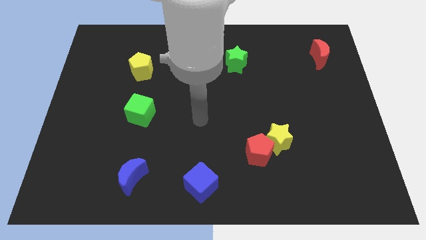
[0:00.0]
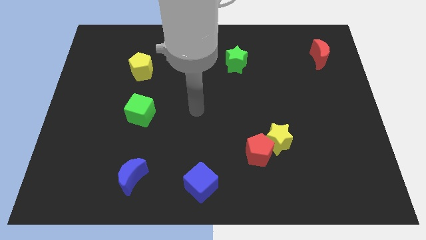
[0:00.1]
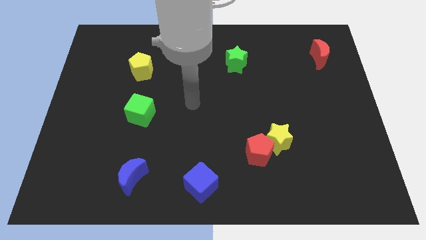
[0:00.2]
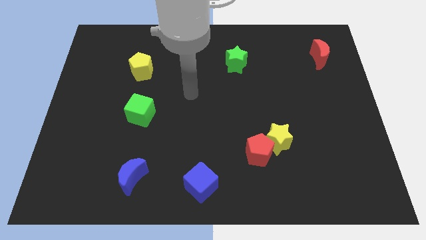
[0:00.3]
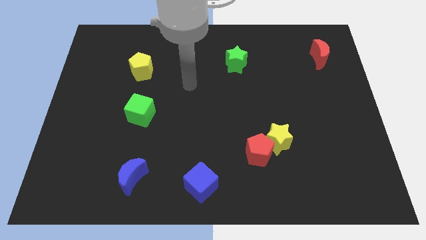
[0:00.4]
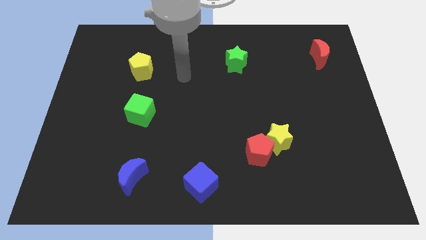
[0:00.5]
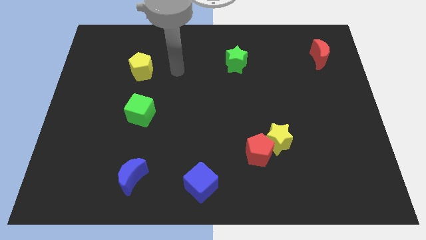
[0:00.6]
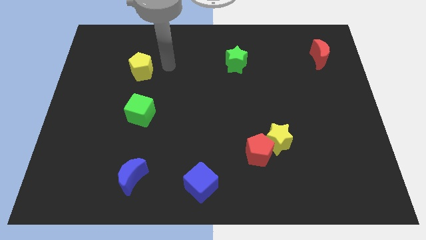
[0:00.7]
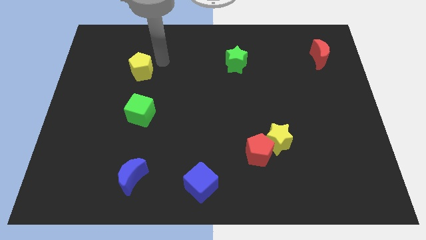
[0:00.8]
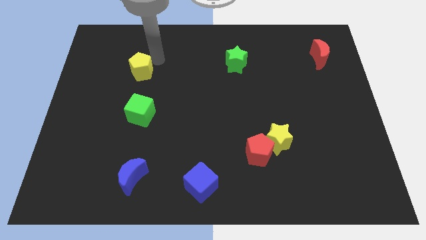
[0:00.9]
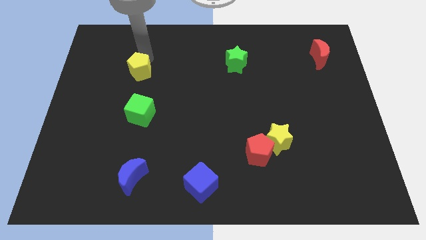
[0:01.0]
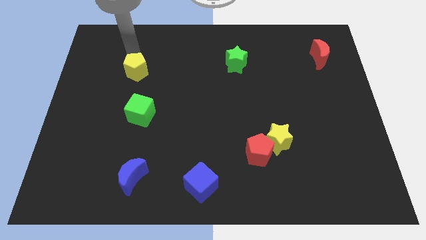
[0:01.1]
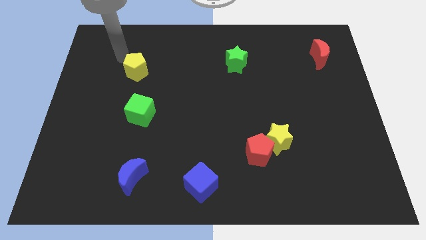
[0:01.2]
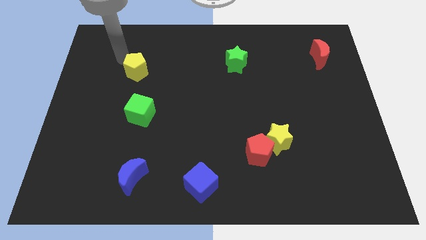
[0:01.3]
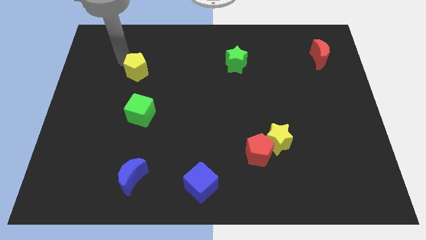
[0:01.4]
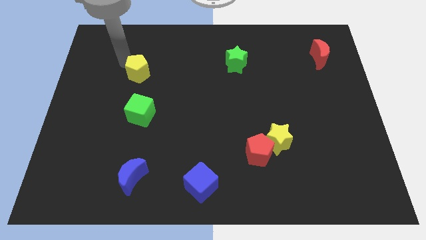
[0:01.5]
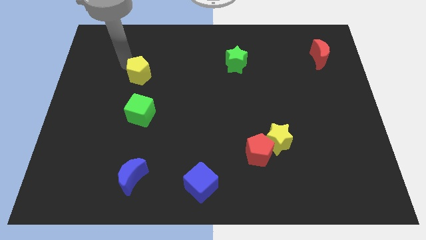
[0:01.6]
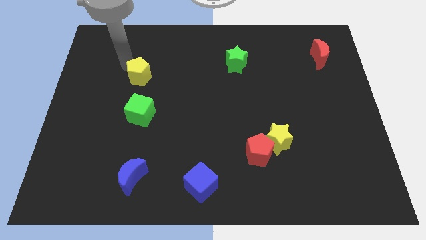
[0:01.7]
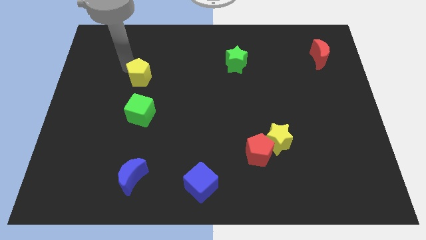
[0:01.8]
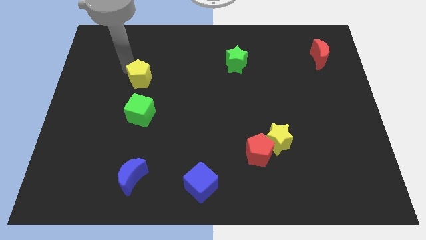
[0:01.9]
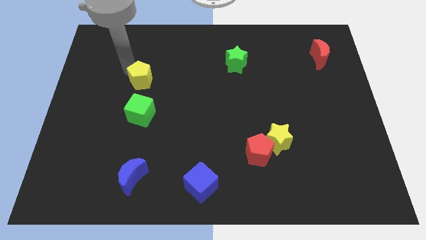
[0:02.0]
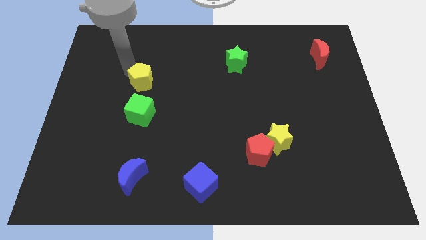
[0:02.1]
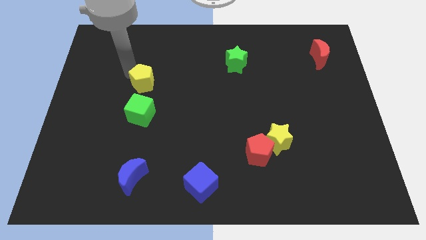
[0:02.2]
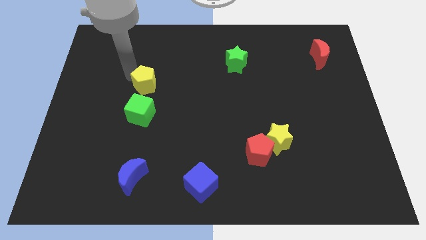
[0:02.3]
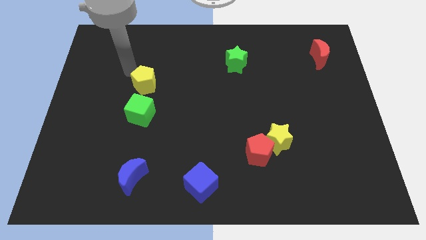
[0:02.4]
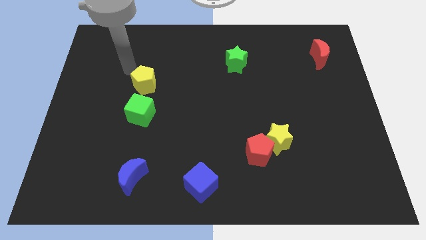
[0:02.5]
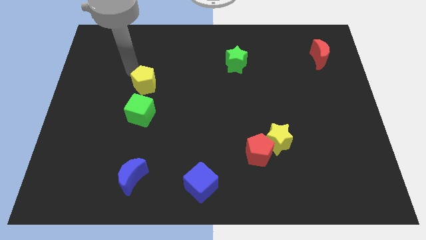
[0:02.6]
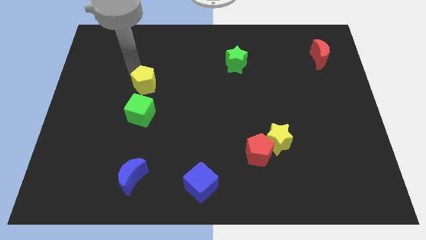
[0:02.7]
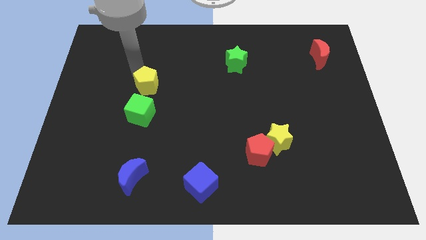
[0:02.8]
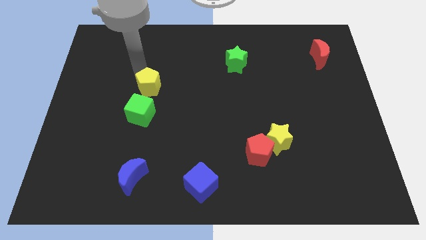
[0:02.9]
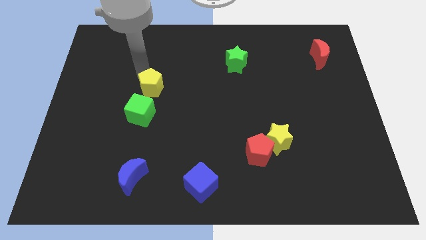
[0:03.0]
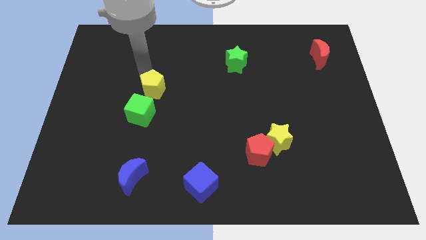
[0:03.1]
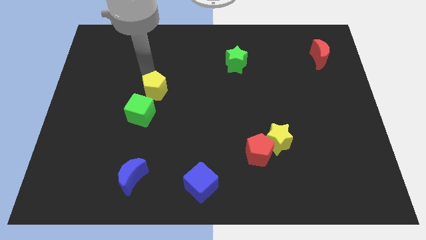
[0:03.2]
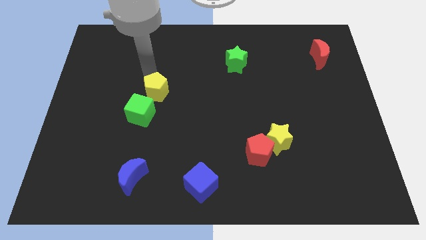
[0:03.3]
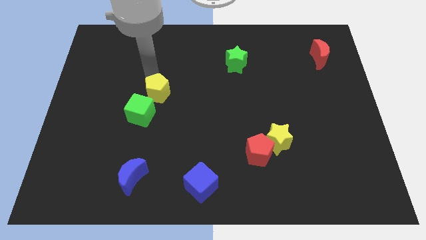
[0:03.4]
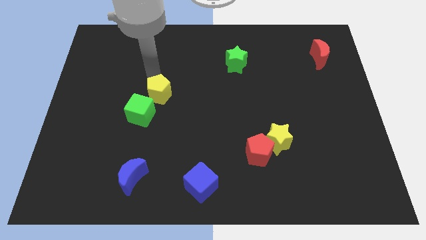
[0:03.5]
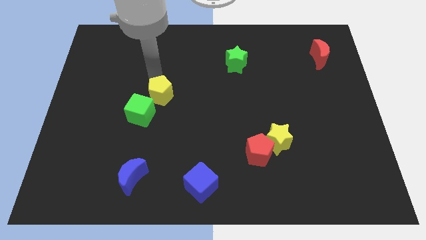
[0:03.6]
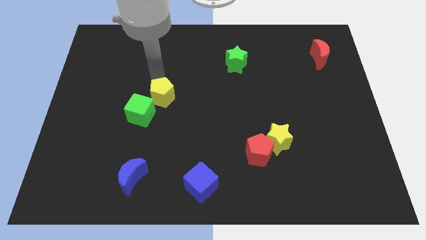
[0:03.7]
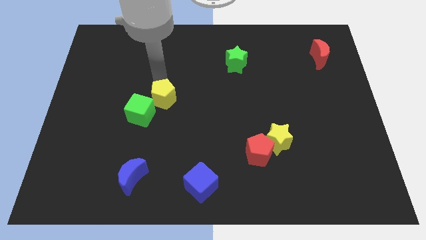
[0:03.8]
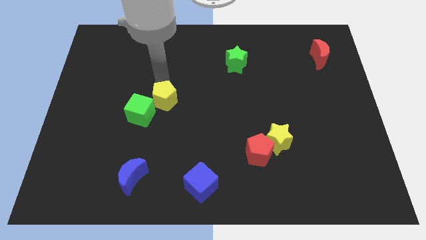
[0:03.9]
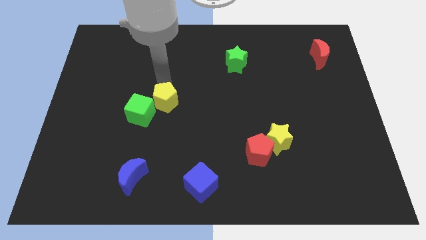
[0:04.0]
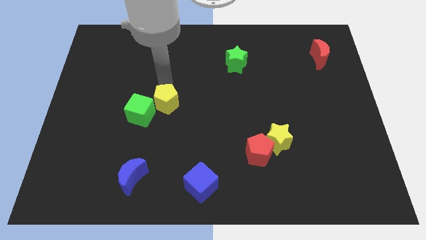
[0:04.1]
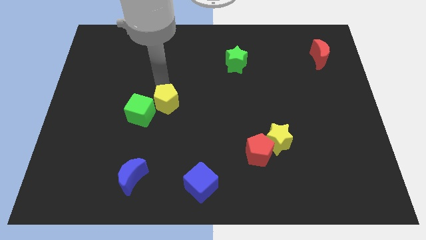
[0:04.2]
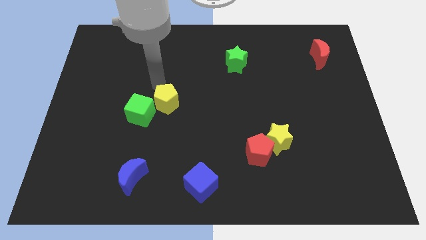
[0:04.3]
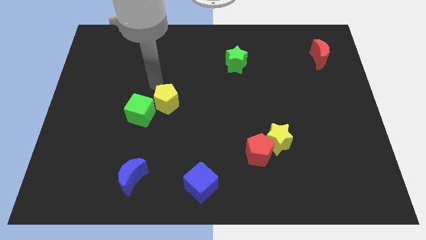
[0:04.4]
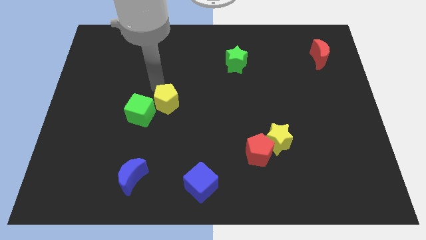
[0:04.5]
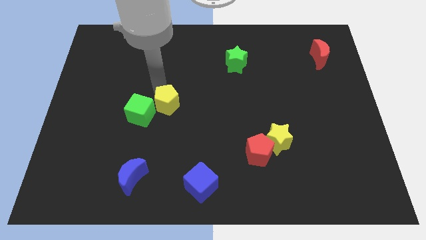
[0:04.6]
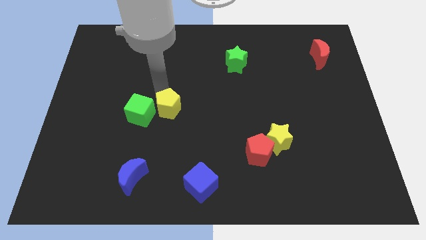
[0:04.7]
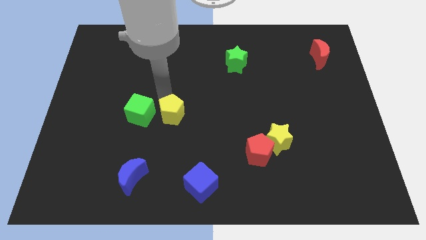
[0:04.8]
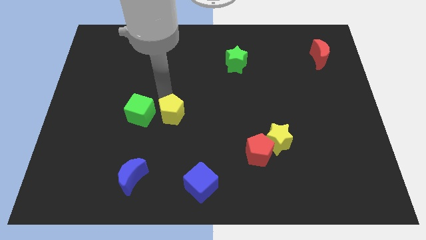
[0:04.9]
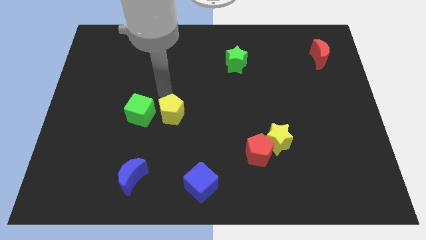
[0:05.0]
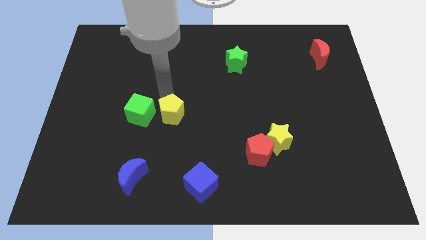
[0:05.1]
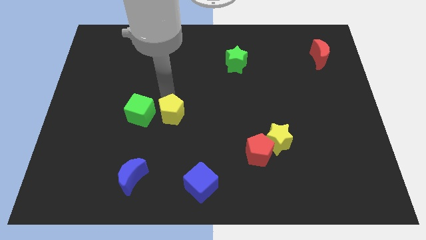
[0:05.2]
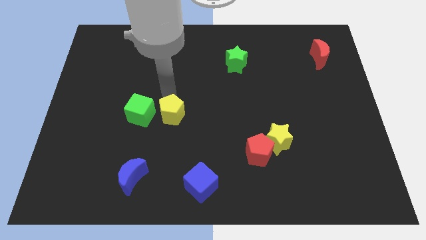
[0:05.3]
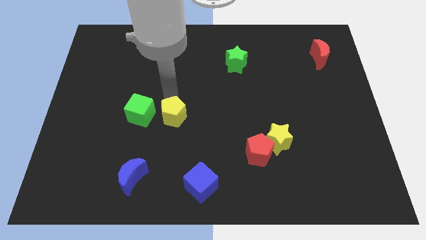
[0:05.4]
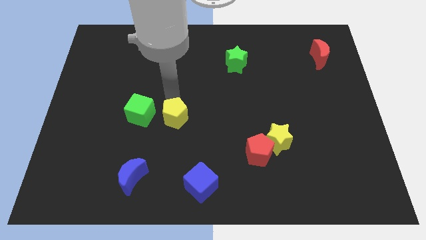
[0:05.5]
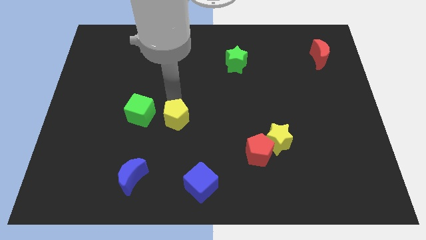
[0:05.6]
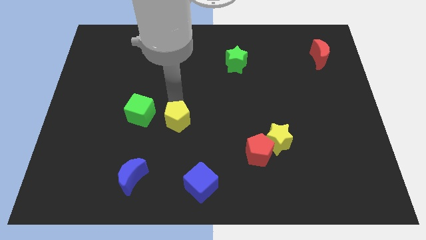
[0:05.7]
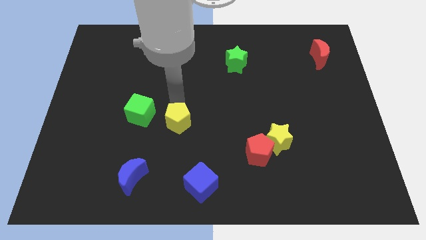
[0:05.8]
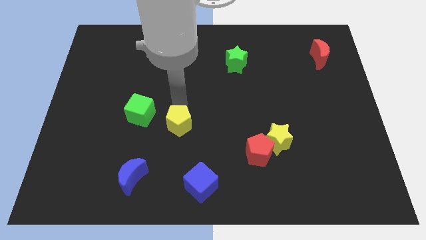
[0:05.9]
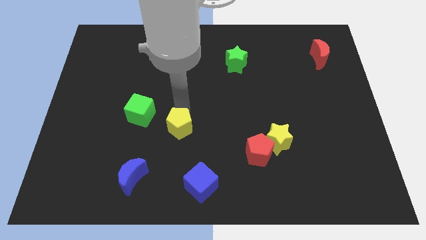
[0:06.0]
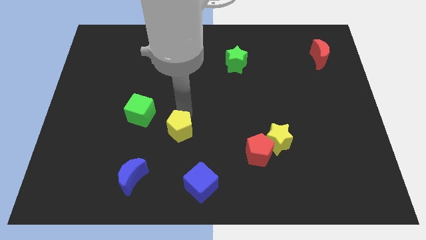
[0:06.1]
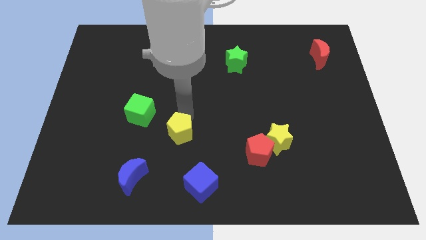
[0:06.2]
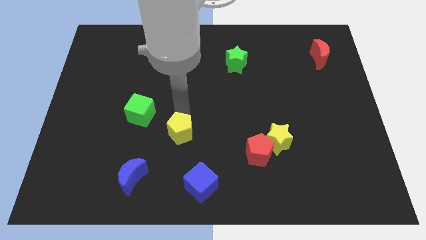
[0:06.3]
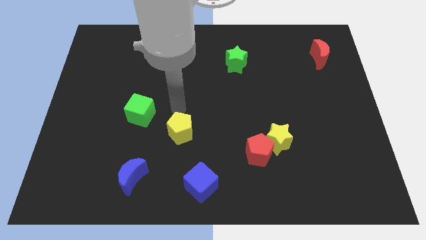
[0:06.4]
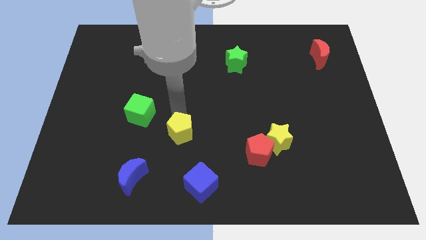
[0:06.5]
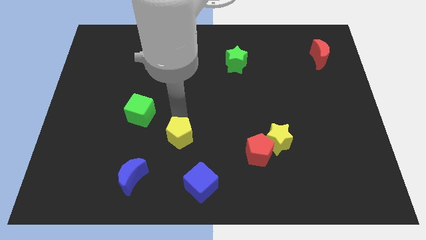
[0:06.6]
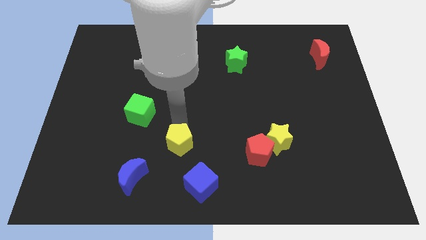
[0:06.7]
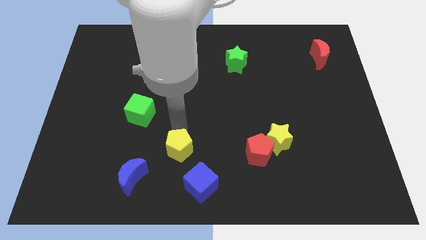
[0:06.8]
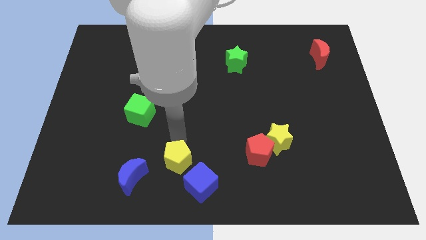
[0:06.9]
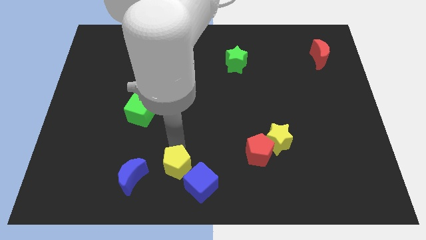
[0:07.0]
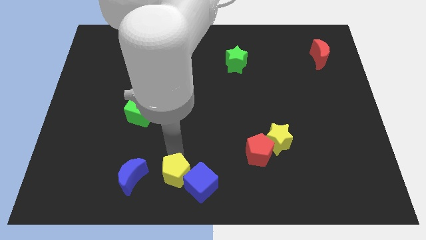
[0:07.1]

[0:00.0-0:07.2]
push the yellow pentagon close to the blue cube
